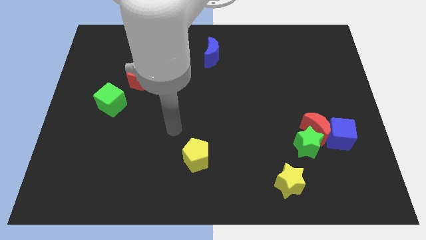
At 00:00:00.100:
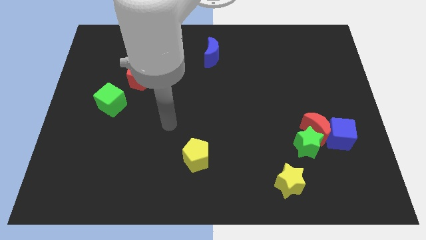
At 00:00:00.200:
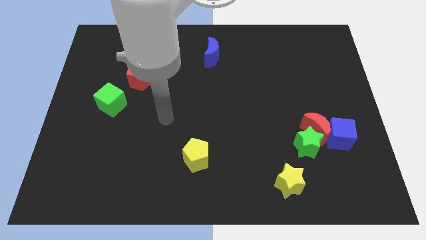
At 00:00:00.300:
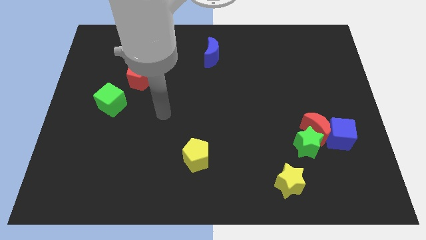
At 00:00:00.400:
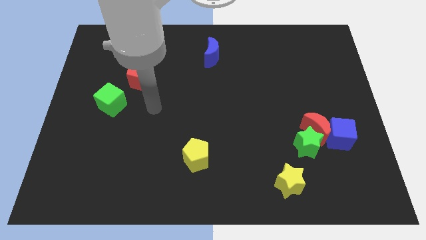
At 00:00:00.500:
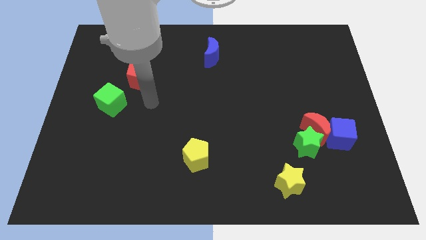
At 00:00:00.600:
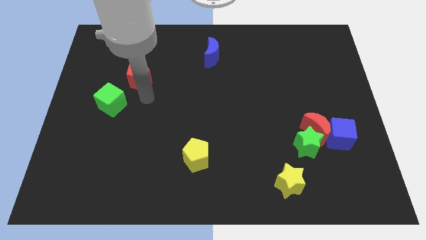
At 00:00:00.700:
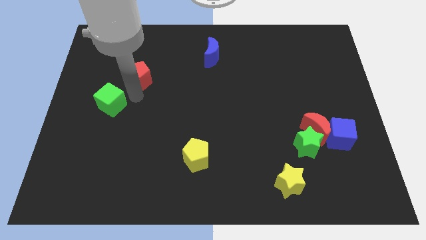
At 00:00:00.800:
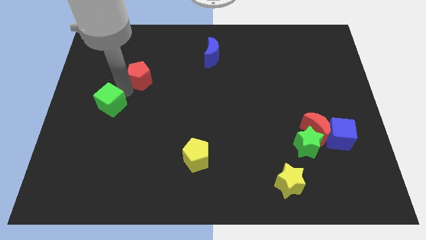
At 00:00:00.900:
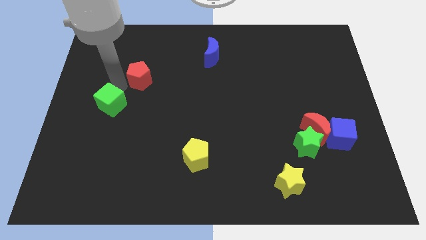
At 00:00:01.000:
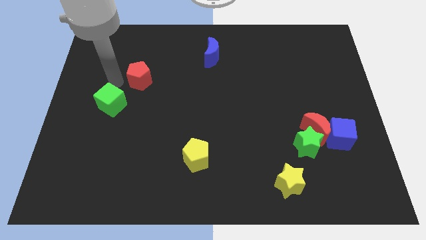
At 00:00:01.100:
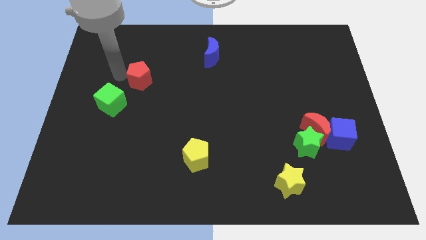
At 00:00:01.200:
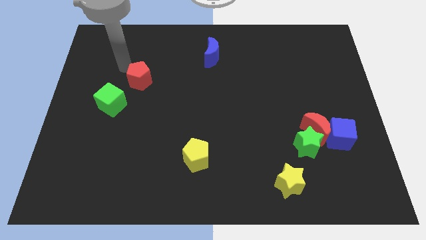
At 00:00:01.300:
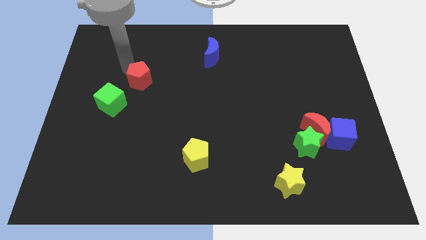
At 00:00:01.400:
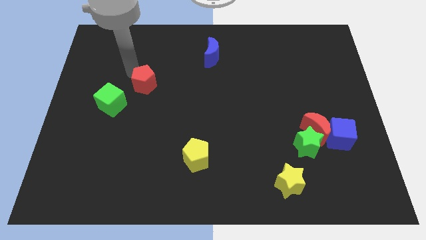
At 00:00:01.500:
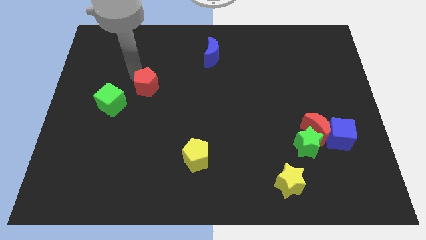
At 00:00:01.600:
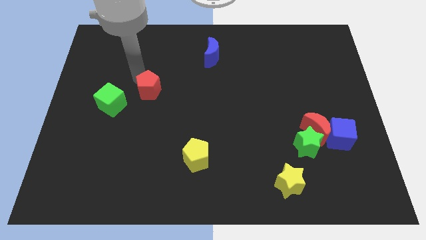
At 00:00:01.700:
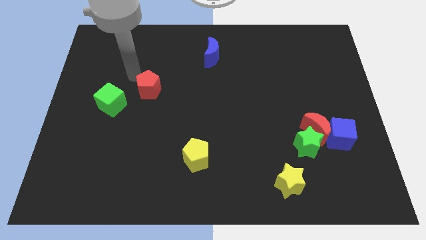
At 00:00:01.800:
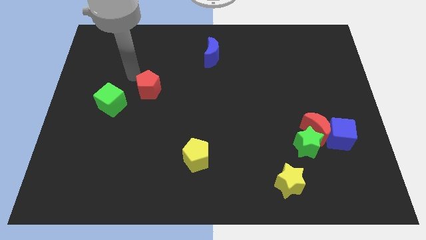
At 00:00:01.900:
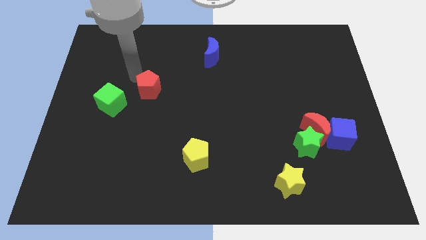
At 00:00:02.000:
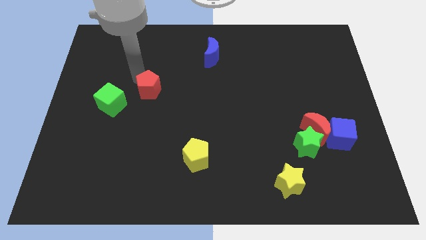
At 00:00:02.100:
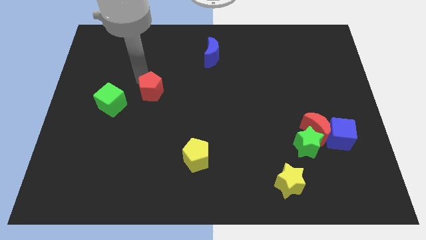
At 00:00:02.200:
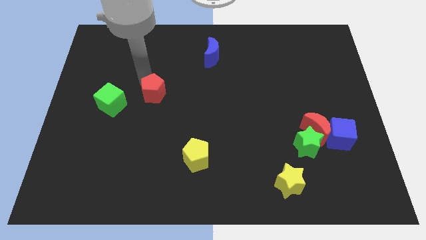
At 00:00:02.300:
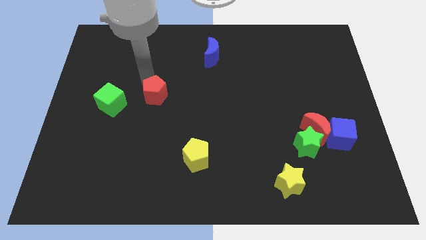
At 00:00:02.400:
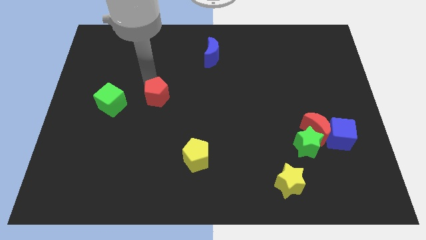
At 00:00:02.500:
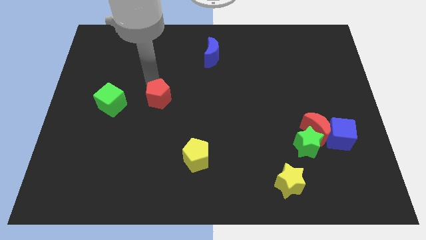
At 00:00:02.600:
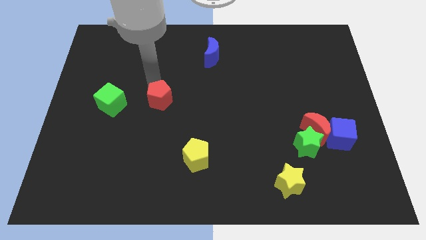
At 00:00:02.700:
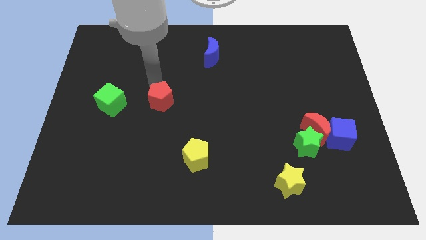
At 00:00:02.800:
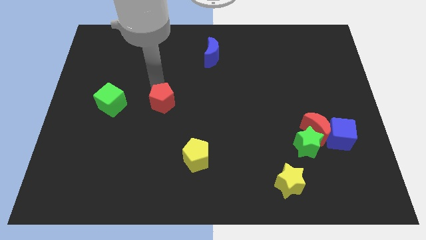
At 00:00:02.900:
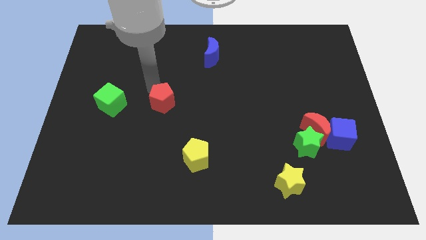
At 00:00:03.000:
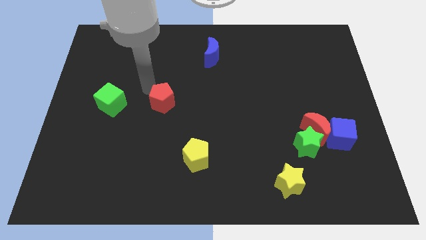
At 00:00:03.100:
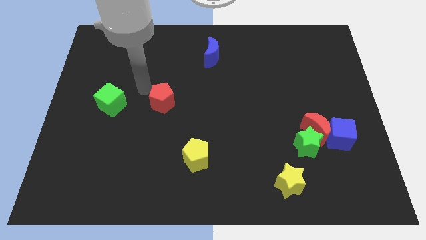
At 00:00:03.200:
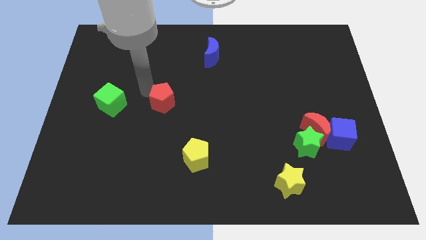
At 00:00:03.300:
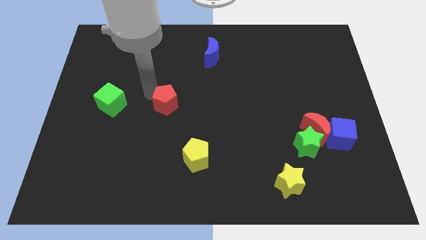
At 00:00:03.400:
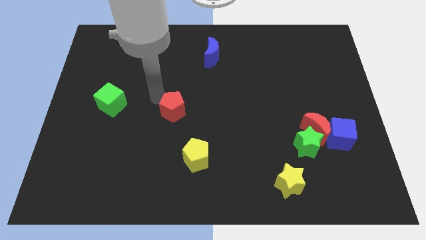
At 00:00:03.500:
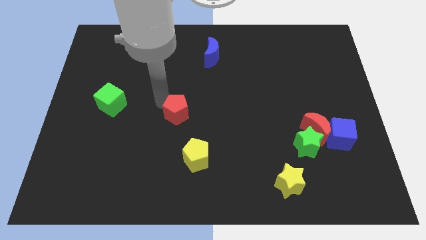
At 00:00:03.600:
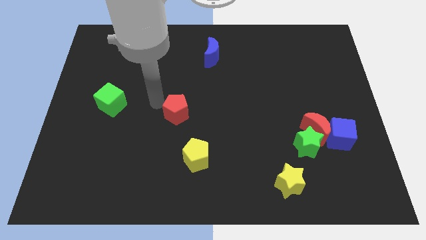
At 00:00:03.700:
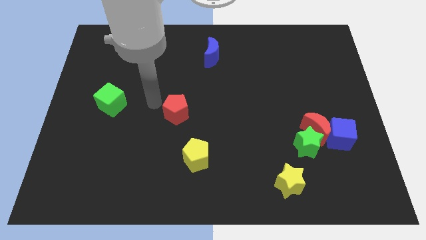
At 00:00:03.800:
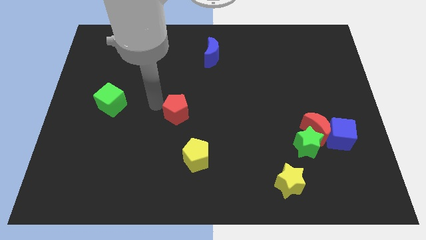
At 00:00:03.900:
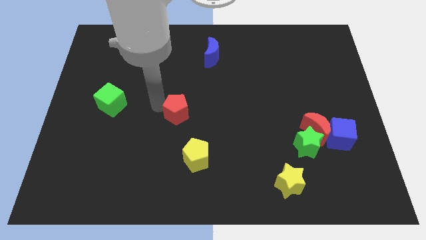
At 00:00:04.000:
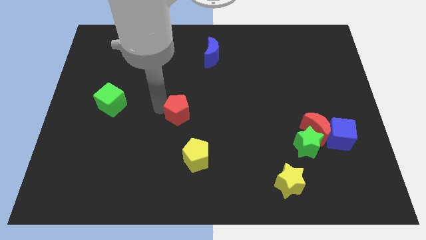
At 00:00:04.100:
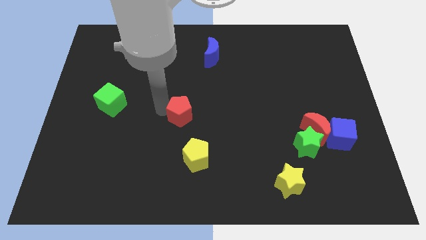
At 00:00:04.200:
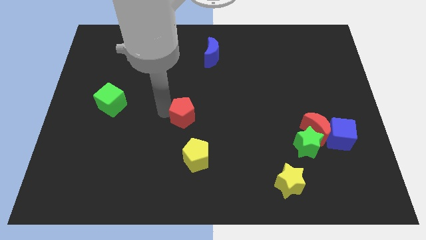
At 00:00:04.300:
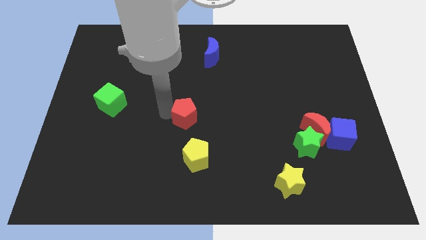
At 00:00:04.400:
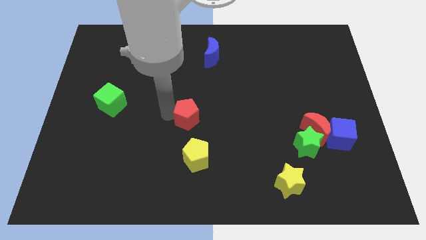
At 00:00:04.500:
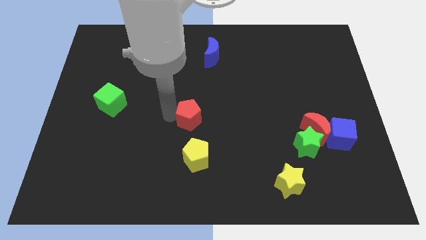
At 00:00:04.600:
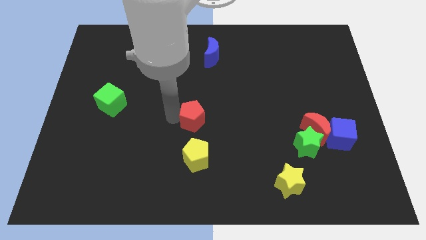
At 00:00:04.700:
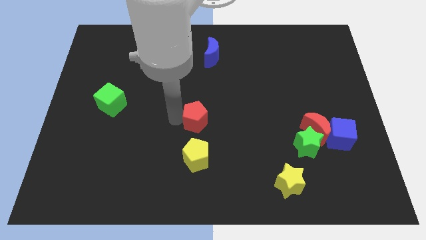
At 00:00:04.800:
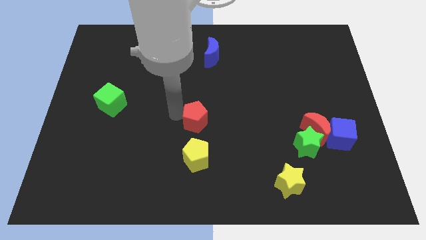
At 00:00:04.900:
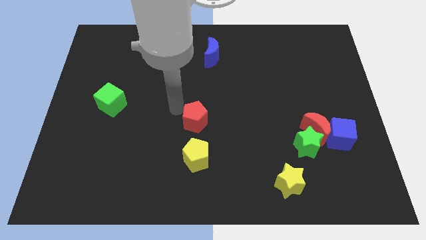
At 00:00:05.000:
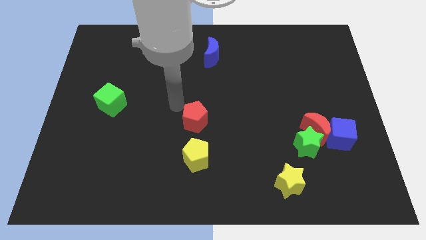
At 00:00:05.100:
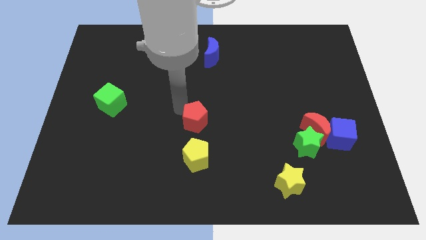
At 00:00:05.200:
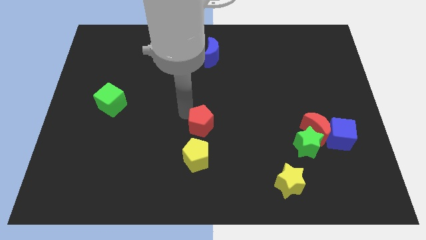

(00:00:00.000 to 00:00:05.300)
slide the red pentagon down and then to the right

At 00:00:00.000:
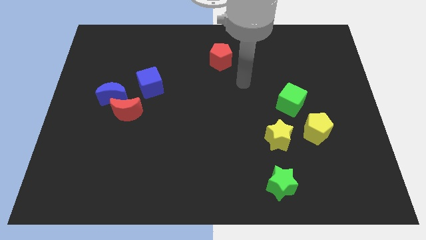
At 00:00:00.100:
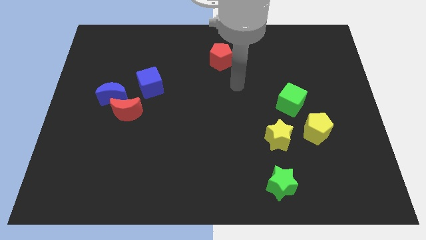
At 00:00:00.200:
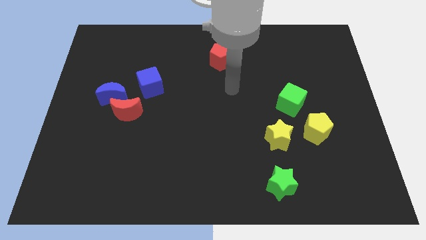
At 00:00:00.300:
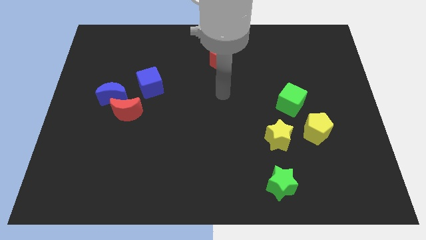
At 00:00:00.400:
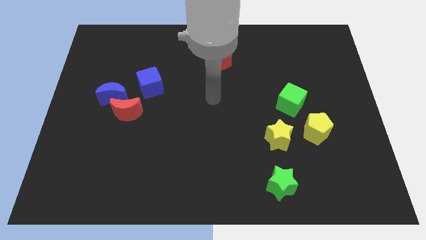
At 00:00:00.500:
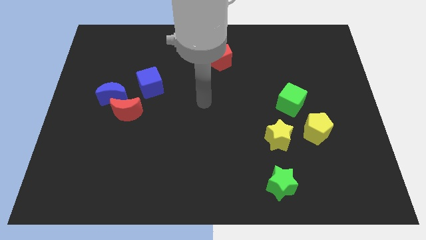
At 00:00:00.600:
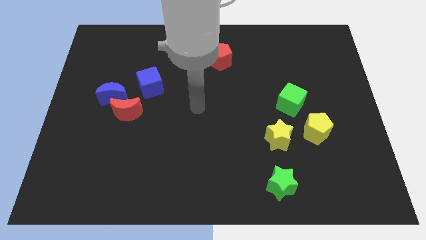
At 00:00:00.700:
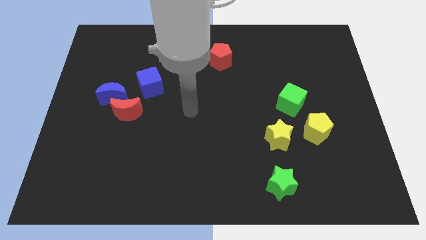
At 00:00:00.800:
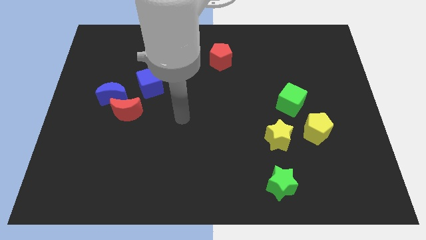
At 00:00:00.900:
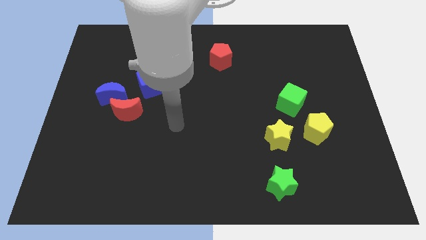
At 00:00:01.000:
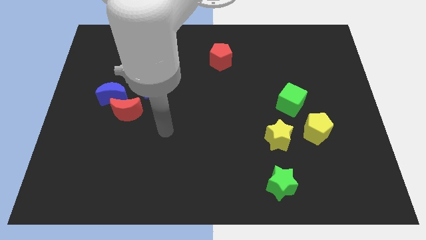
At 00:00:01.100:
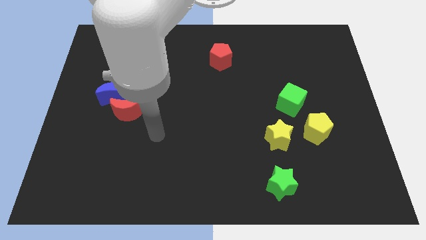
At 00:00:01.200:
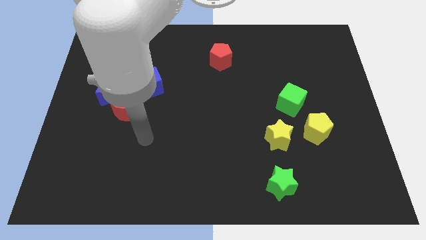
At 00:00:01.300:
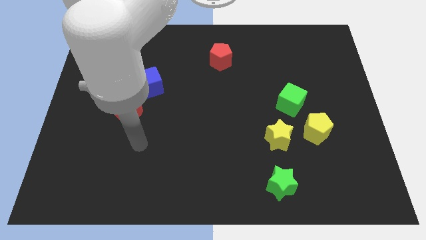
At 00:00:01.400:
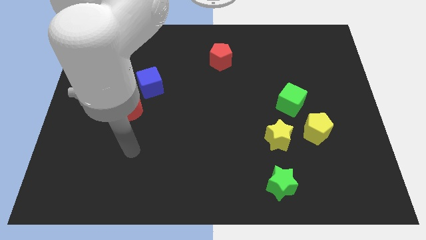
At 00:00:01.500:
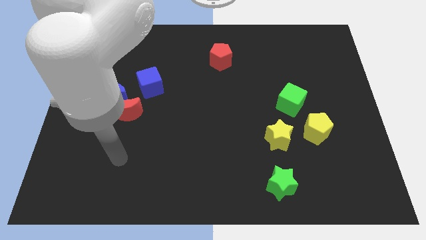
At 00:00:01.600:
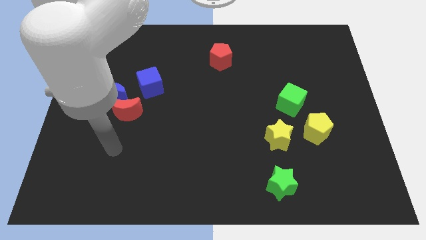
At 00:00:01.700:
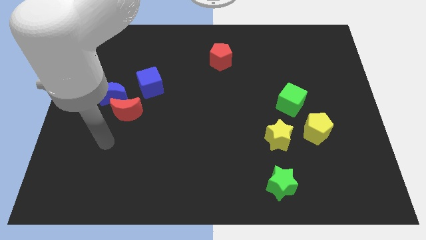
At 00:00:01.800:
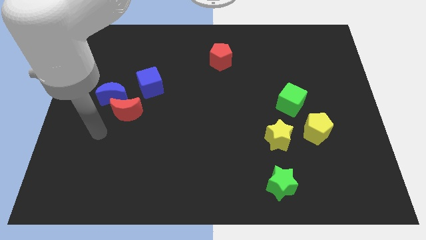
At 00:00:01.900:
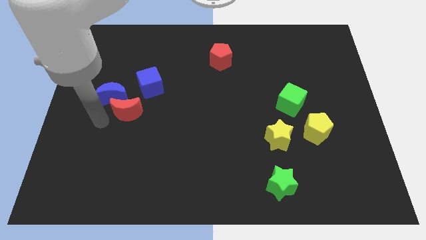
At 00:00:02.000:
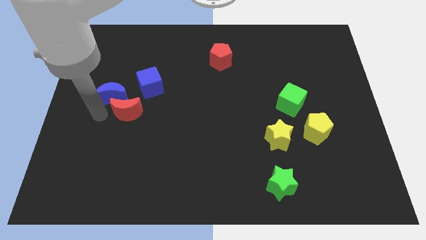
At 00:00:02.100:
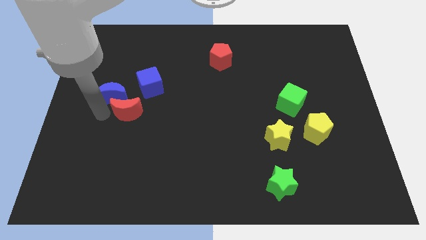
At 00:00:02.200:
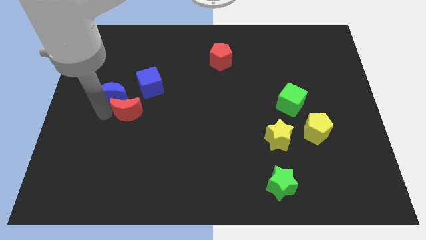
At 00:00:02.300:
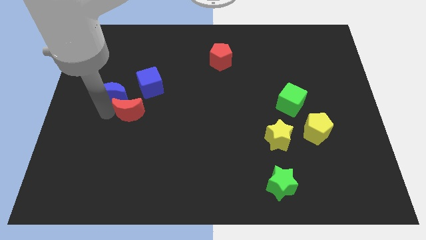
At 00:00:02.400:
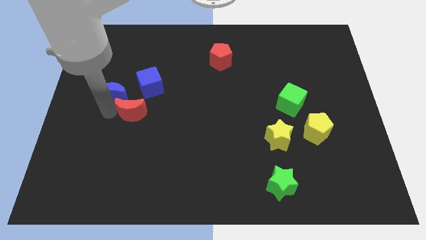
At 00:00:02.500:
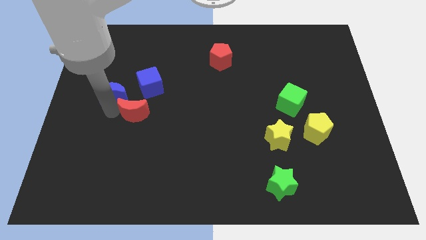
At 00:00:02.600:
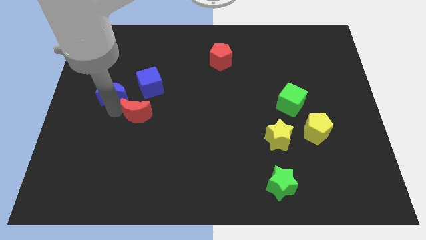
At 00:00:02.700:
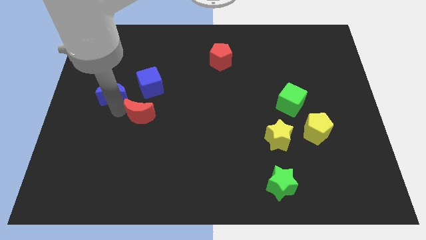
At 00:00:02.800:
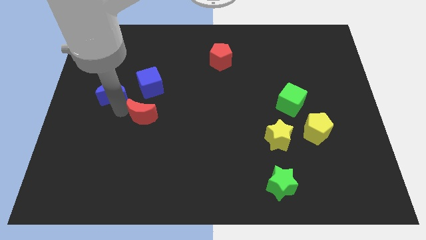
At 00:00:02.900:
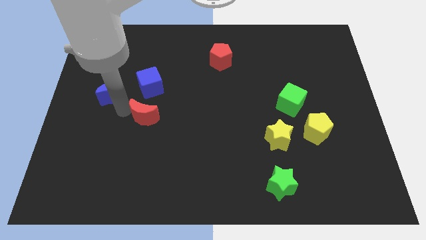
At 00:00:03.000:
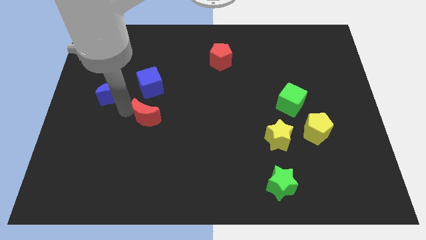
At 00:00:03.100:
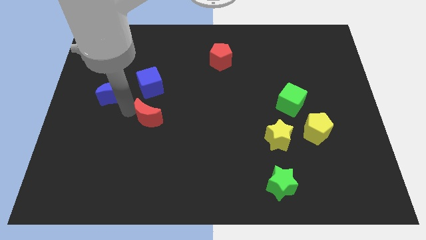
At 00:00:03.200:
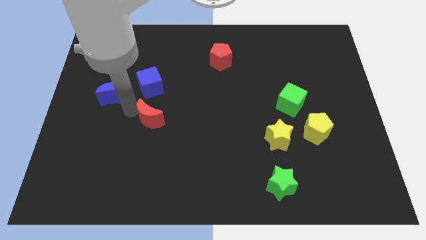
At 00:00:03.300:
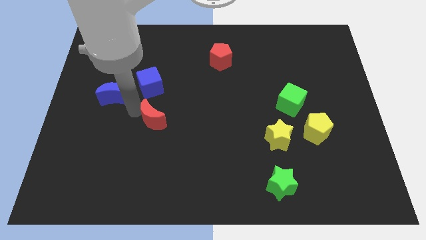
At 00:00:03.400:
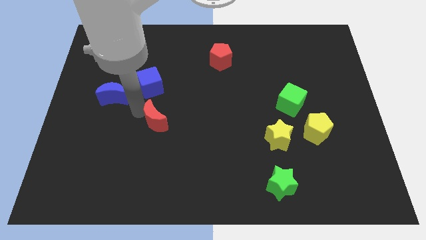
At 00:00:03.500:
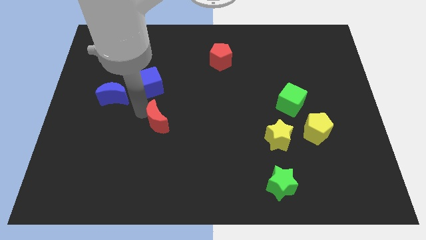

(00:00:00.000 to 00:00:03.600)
push the red moon right a bit
